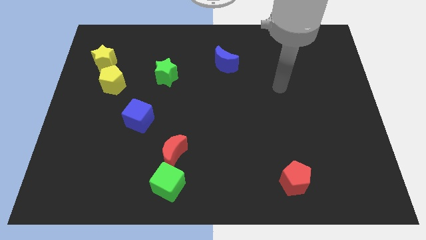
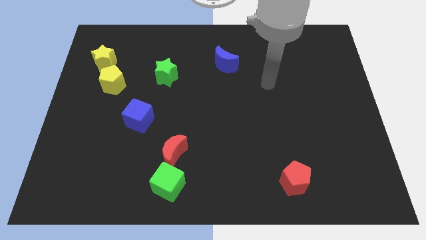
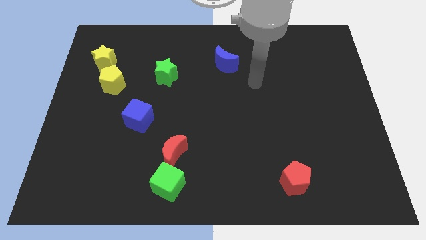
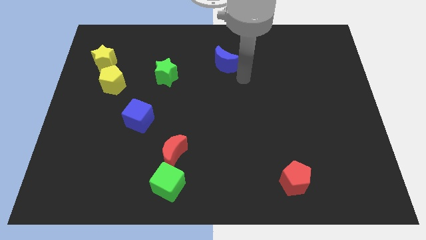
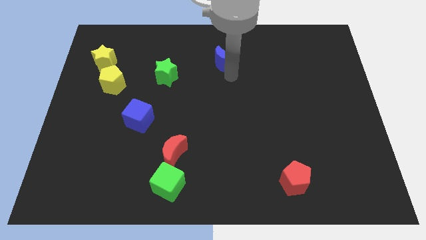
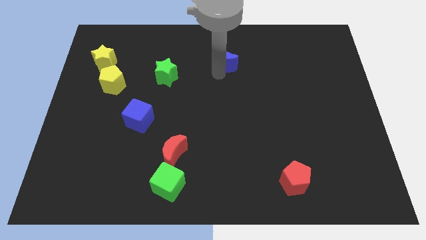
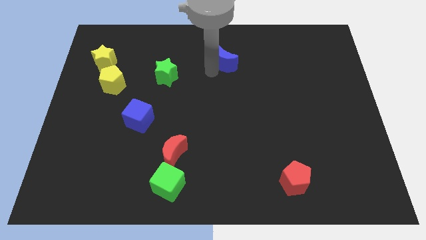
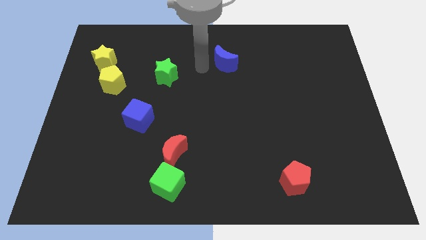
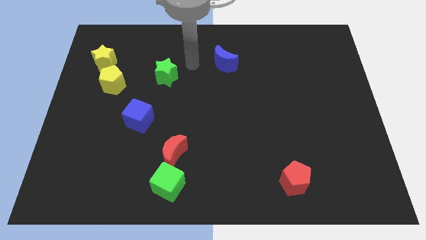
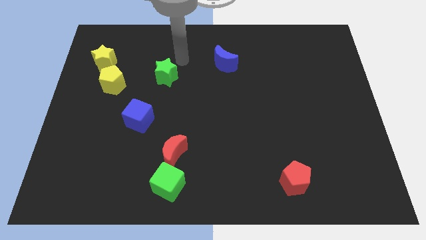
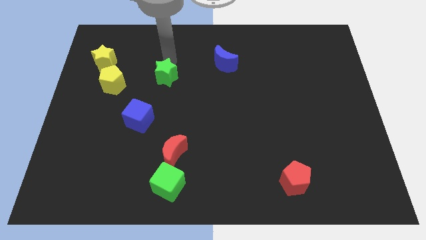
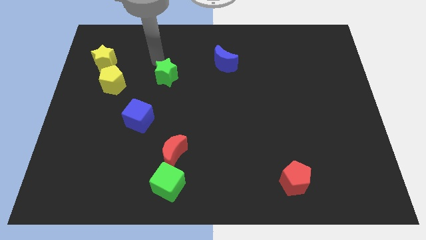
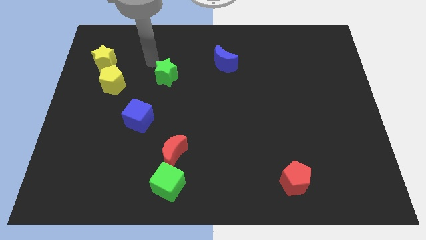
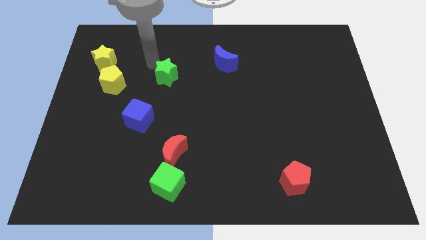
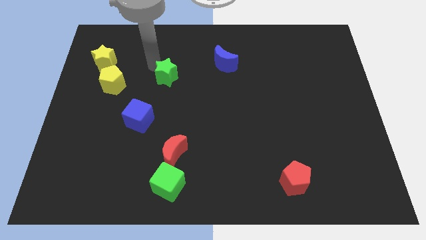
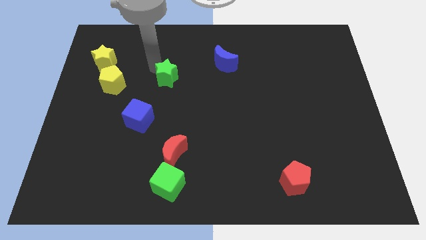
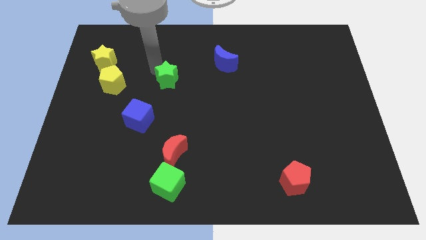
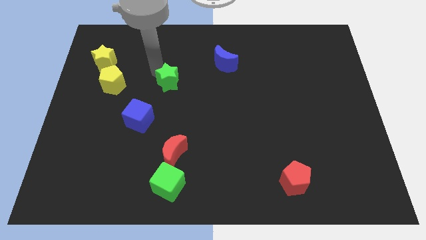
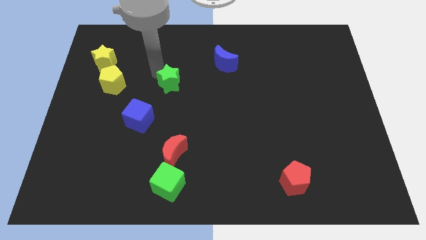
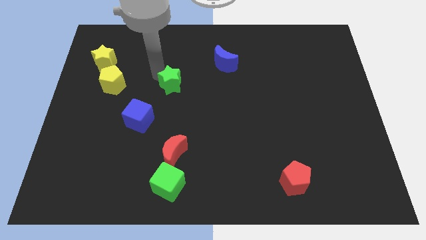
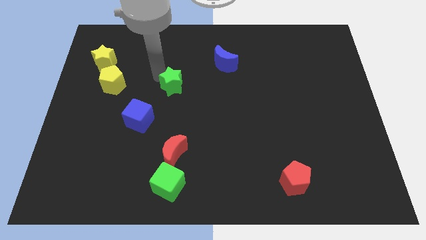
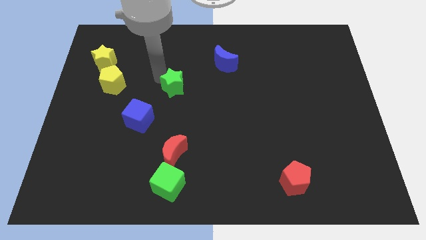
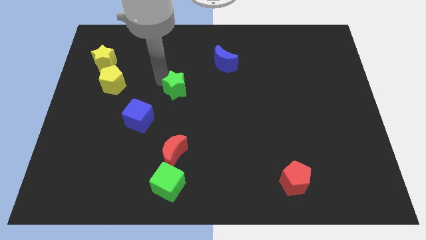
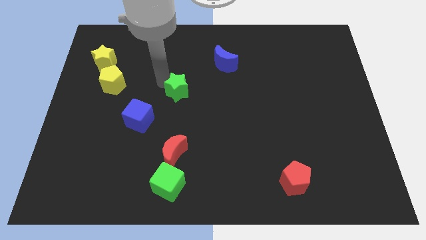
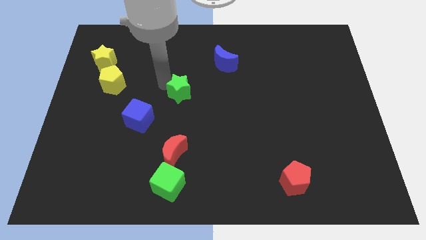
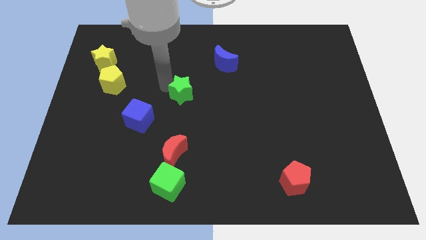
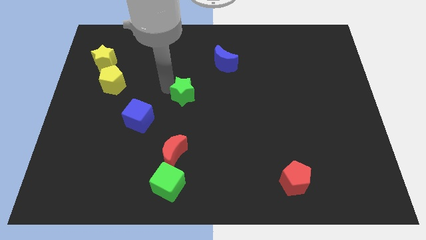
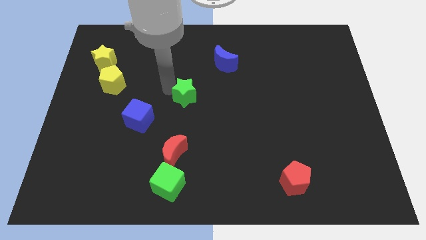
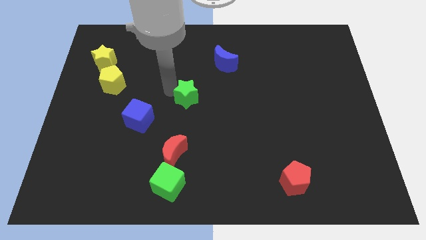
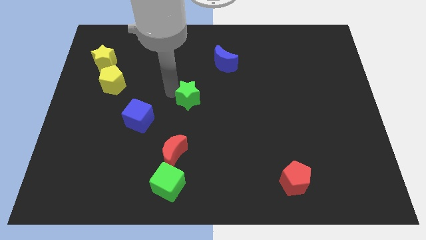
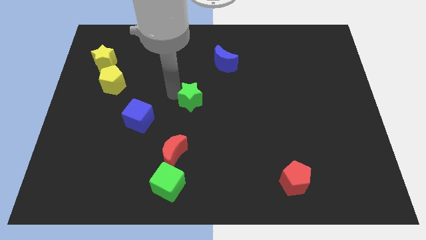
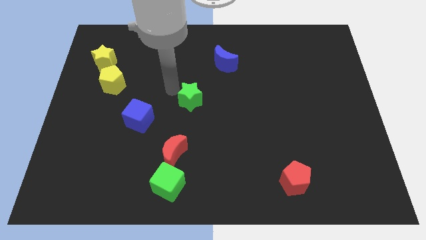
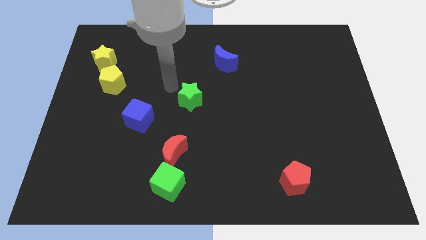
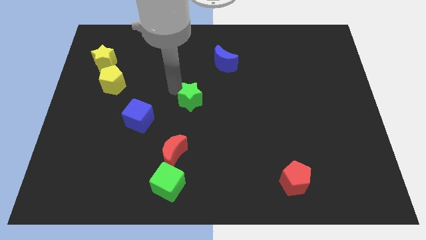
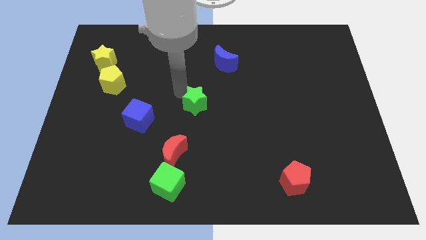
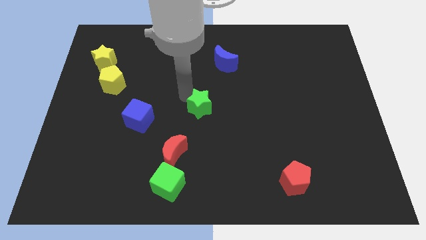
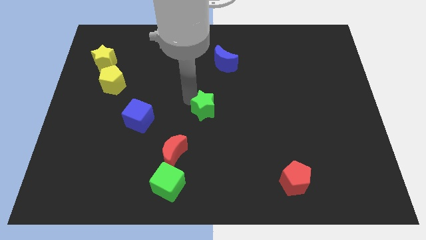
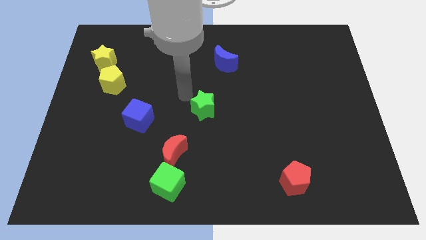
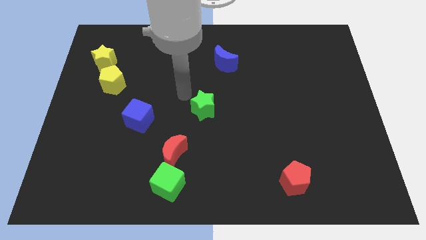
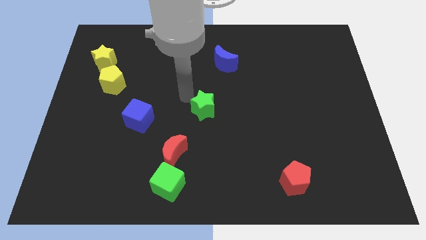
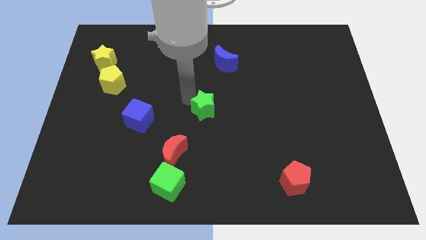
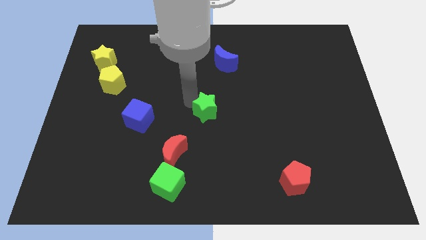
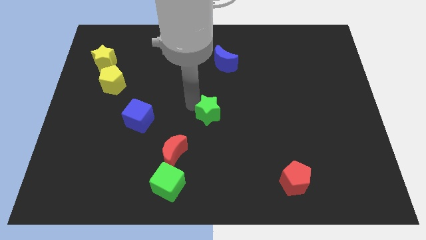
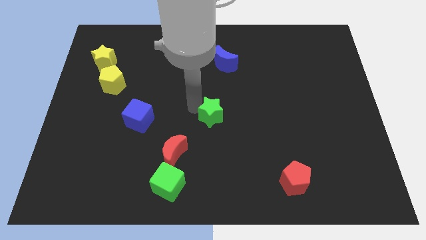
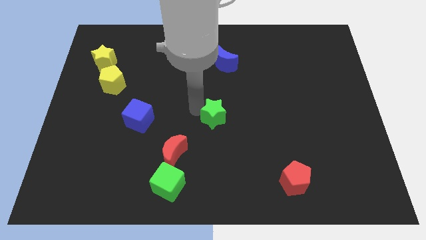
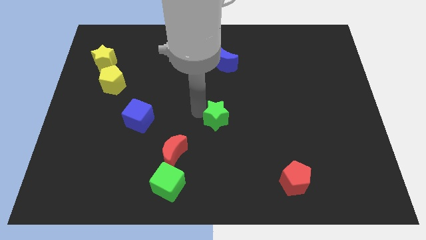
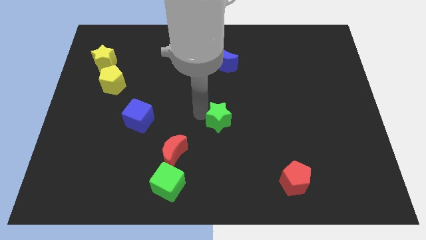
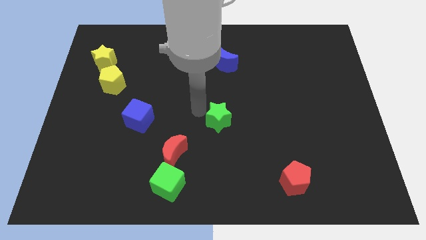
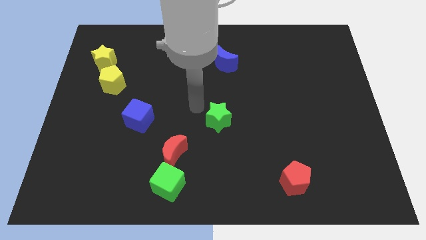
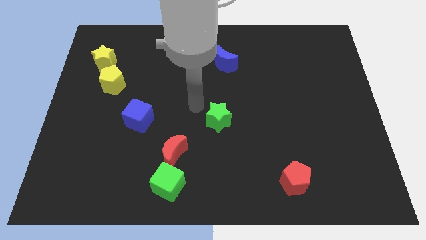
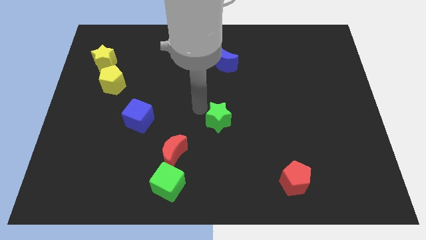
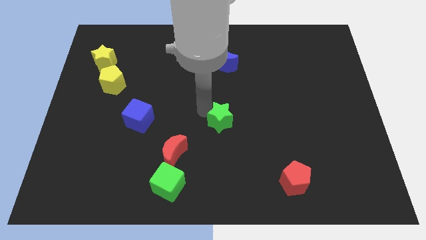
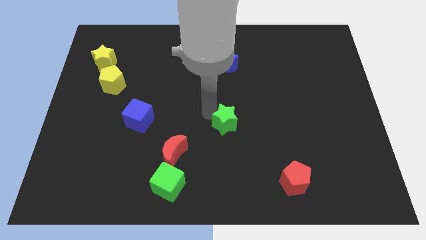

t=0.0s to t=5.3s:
push the green star downwards and right

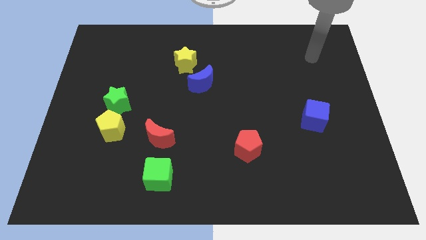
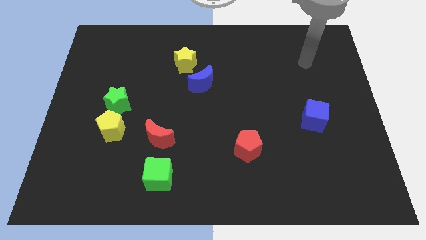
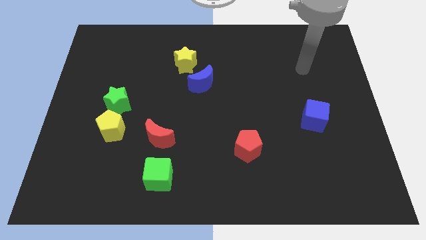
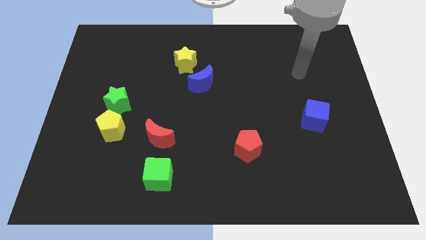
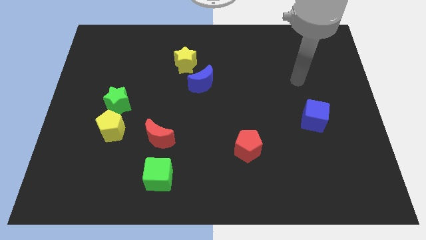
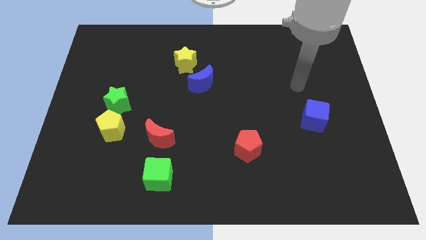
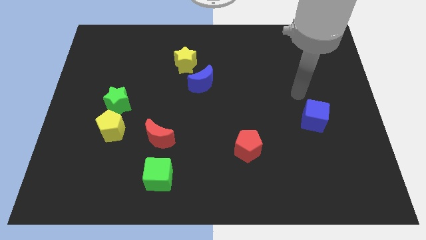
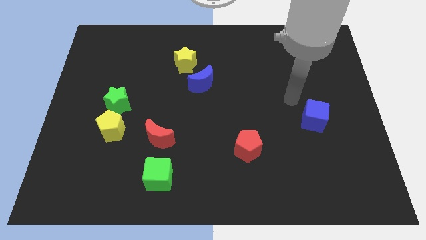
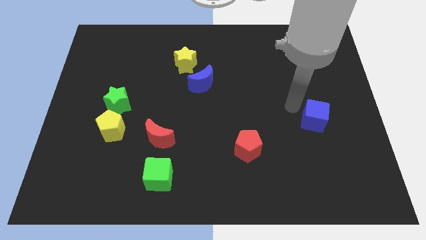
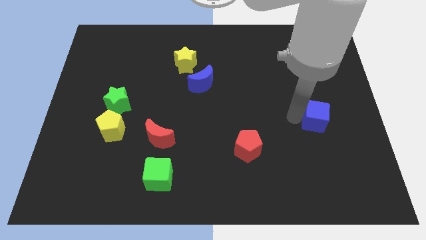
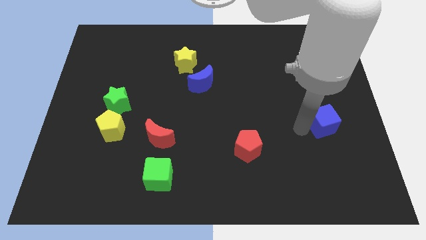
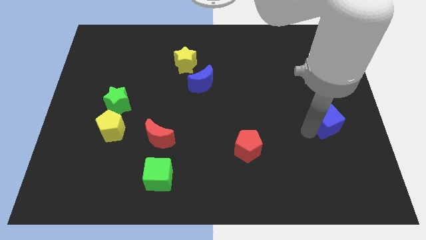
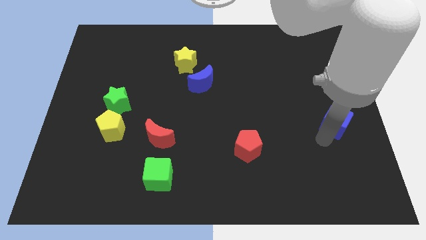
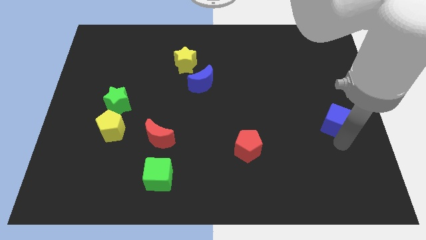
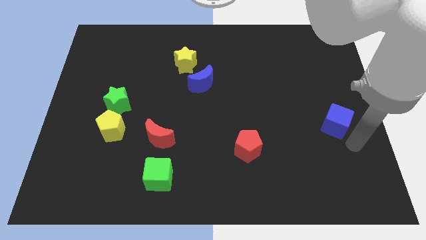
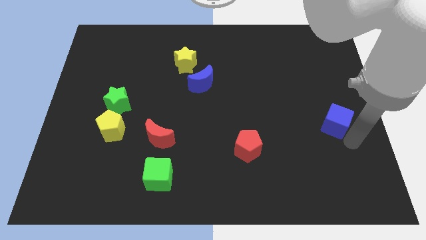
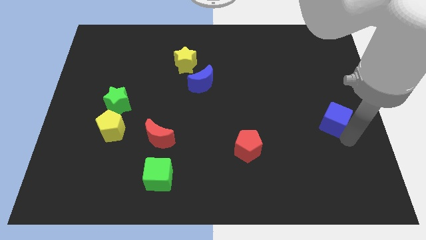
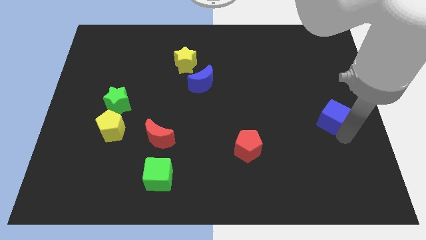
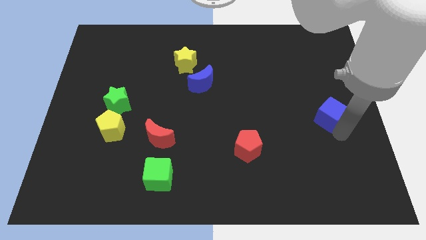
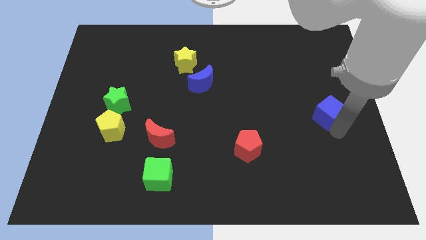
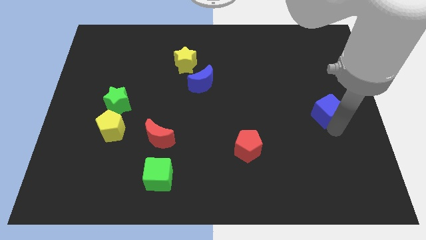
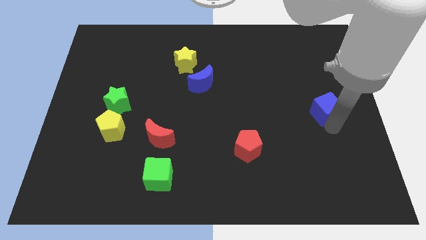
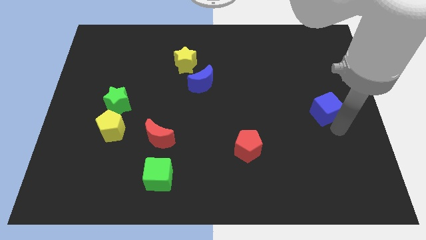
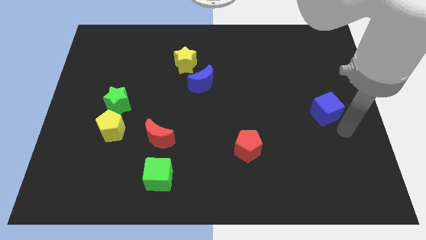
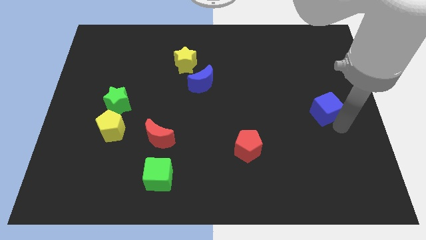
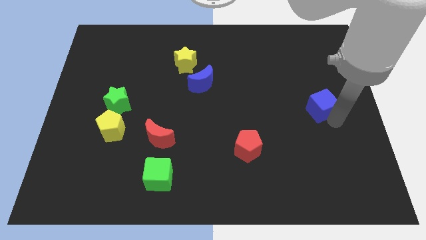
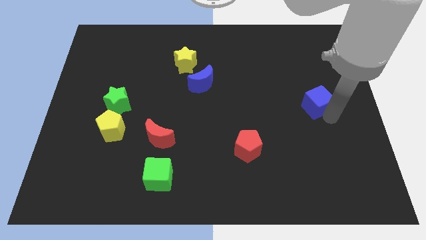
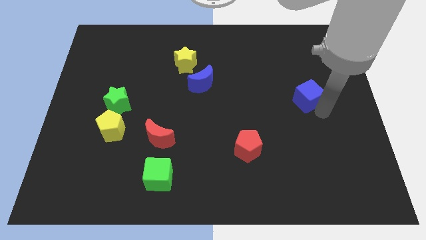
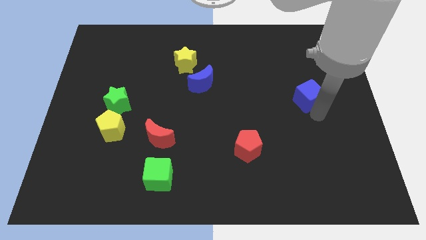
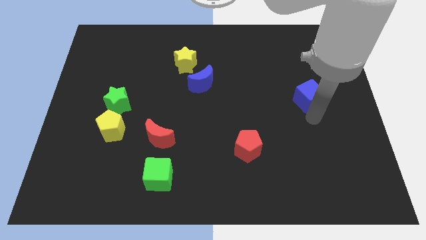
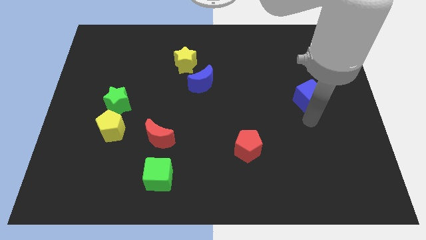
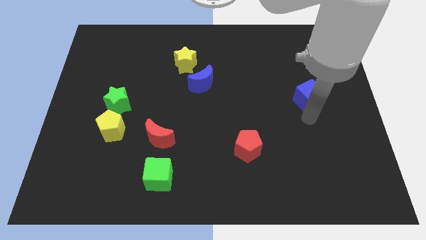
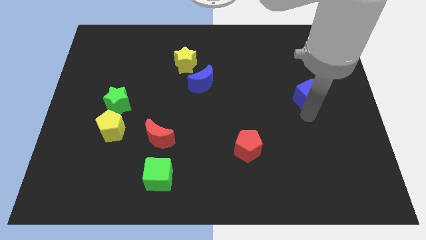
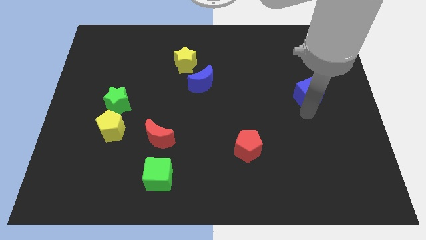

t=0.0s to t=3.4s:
move the blue cube a little bit upwards
